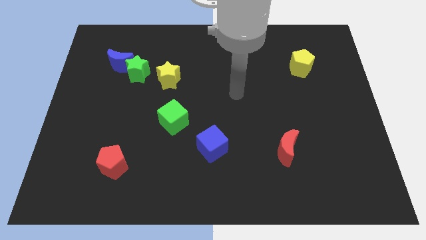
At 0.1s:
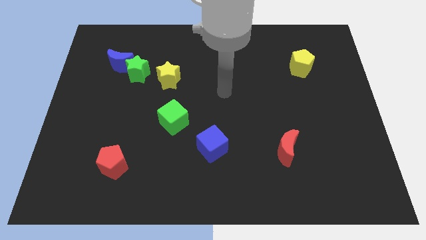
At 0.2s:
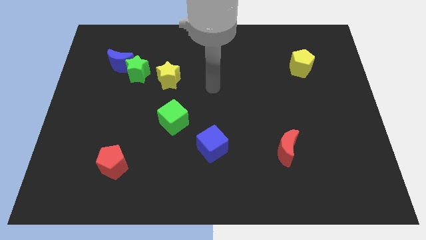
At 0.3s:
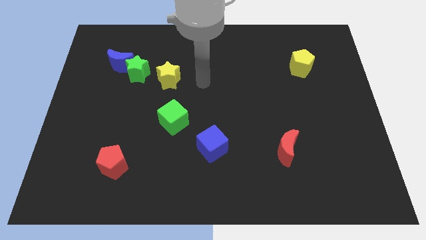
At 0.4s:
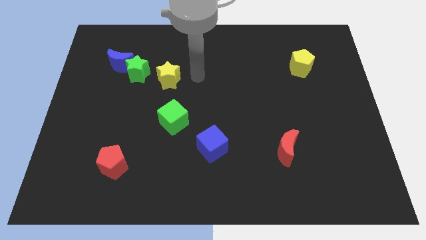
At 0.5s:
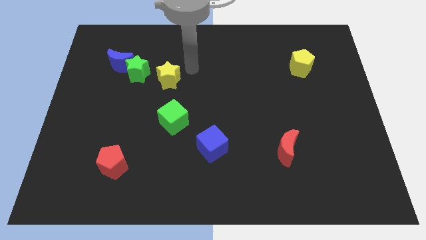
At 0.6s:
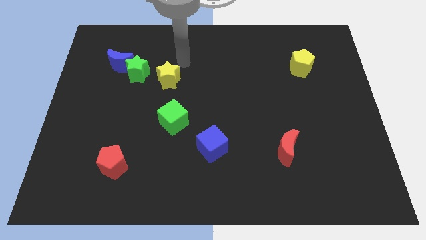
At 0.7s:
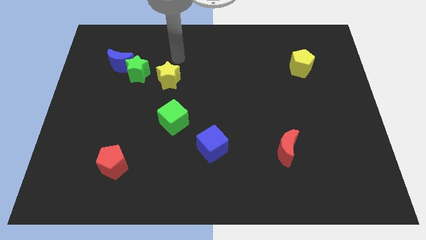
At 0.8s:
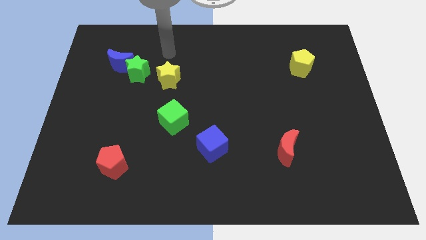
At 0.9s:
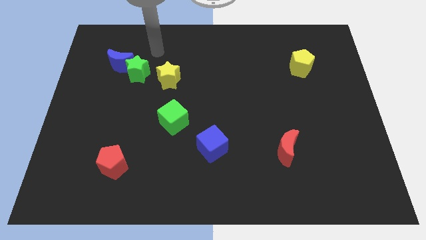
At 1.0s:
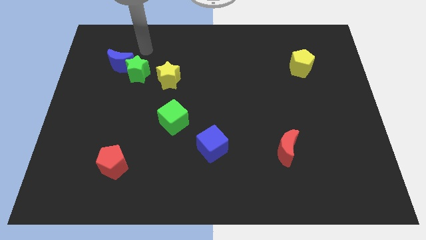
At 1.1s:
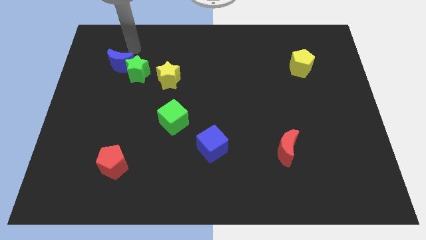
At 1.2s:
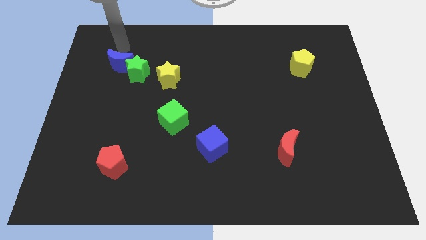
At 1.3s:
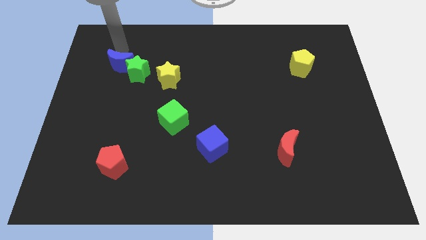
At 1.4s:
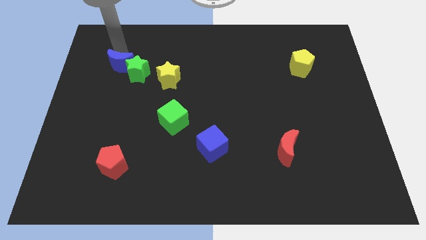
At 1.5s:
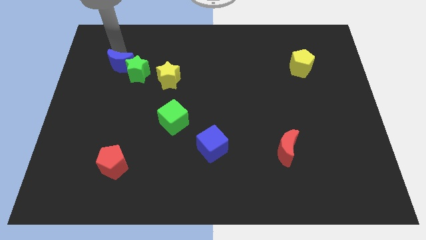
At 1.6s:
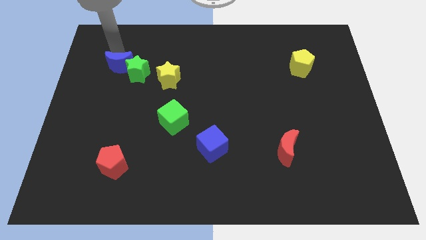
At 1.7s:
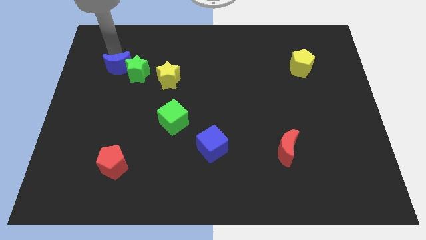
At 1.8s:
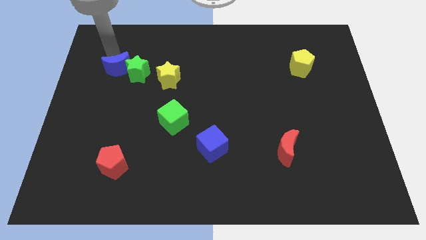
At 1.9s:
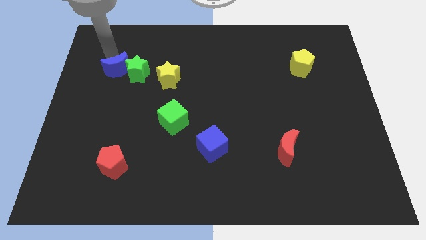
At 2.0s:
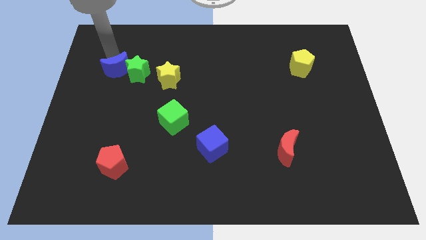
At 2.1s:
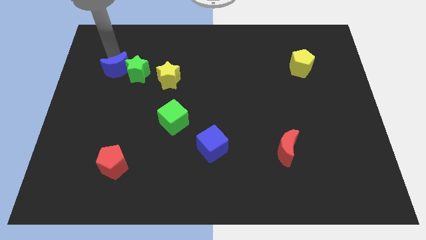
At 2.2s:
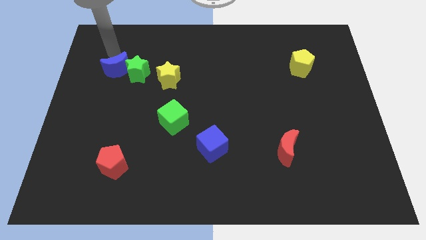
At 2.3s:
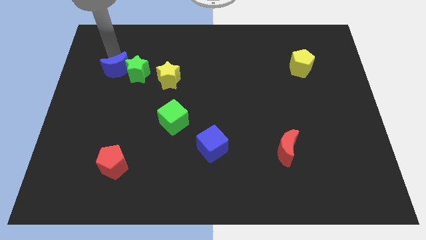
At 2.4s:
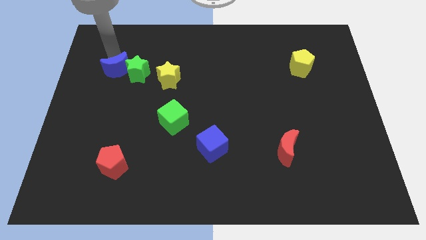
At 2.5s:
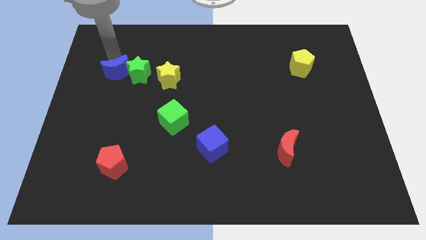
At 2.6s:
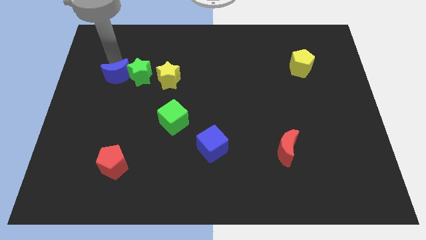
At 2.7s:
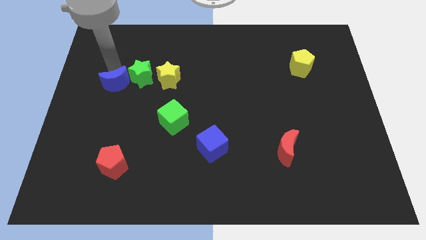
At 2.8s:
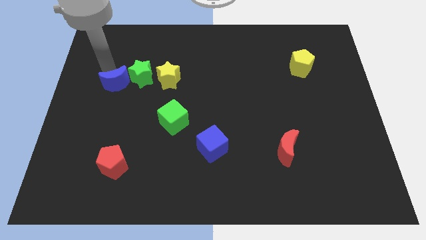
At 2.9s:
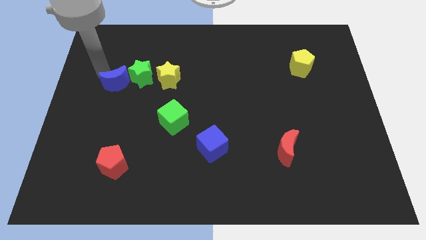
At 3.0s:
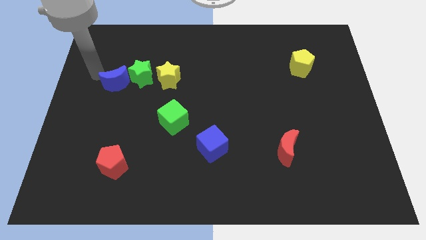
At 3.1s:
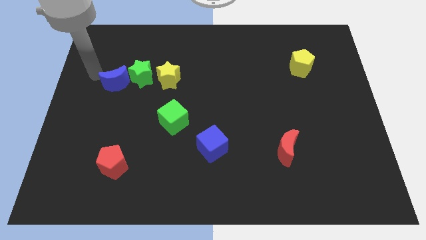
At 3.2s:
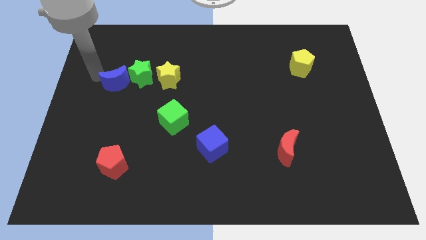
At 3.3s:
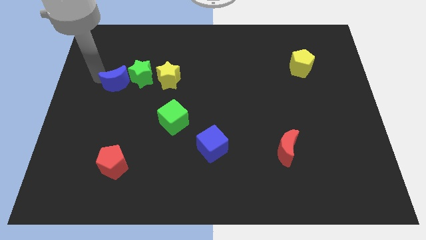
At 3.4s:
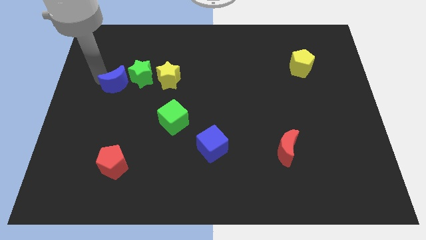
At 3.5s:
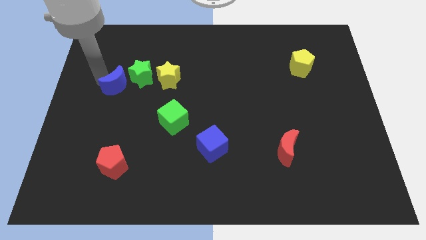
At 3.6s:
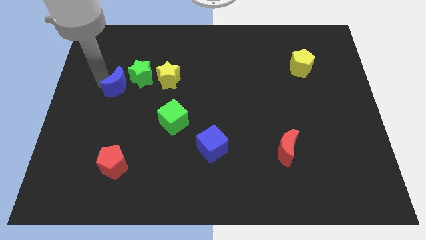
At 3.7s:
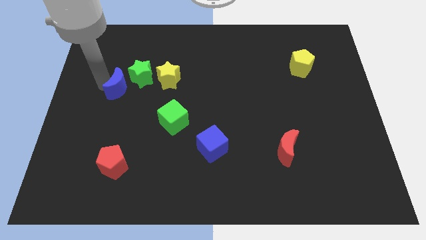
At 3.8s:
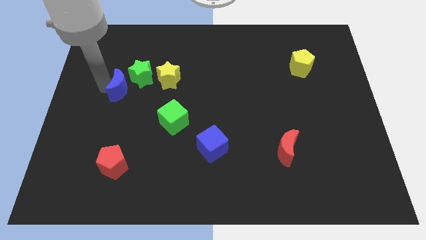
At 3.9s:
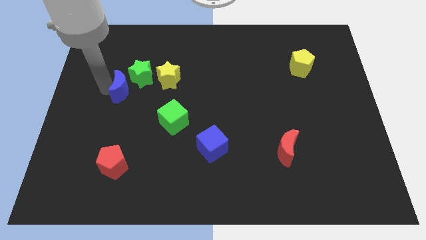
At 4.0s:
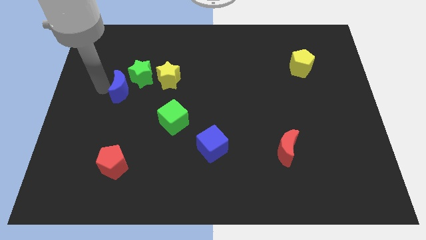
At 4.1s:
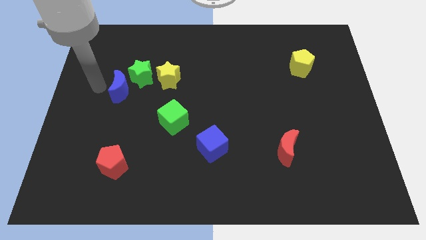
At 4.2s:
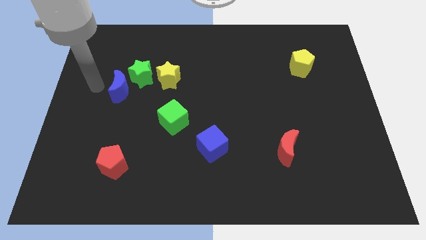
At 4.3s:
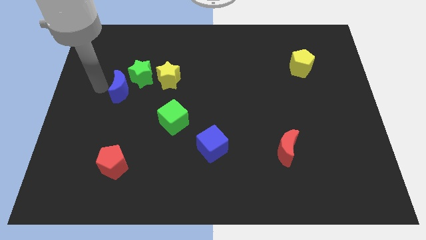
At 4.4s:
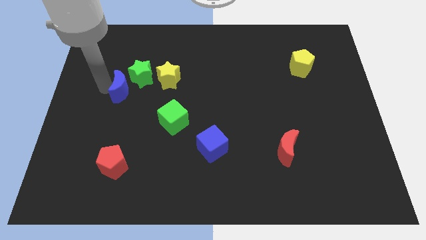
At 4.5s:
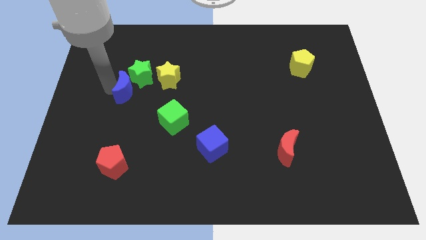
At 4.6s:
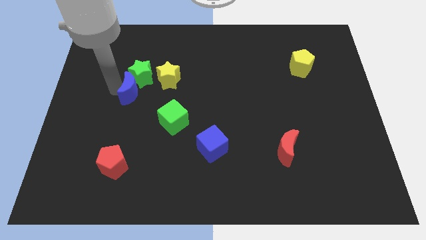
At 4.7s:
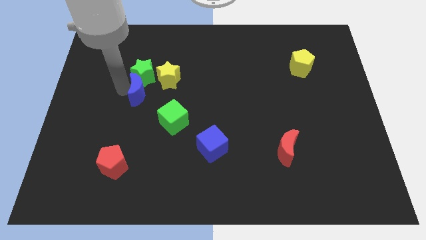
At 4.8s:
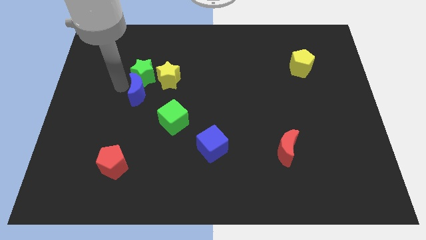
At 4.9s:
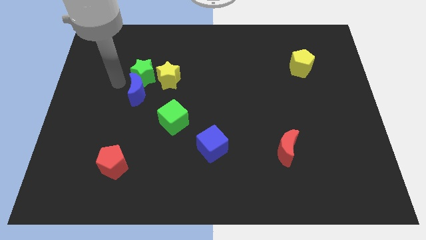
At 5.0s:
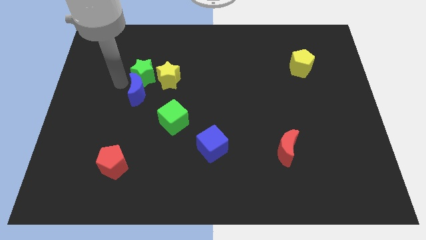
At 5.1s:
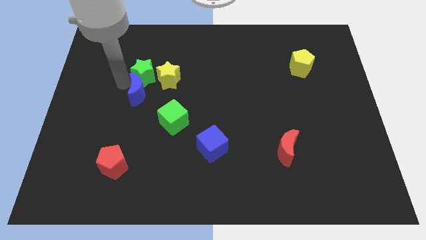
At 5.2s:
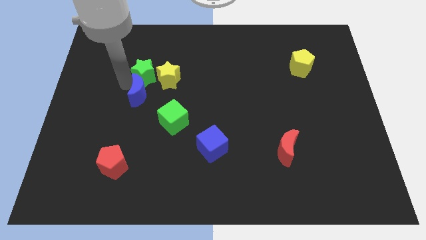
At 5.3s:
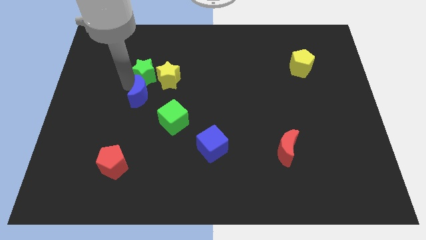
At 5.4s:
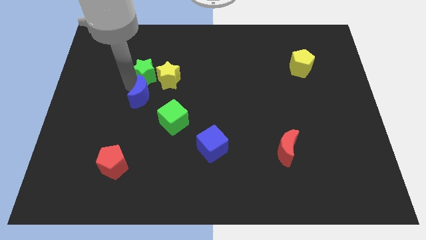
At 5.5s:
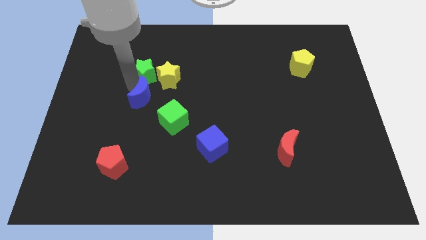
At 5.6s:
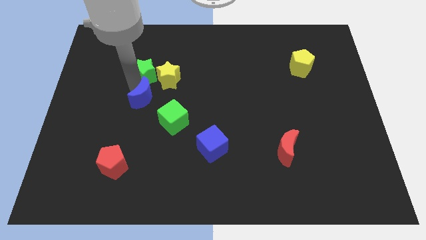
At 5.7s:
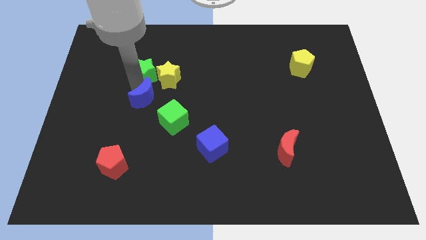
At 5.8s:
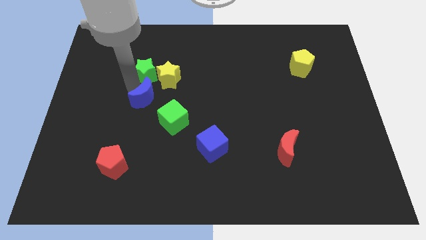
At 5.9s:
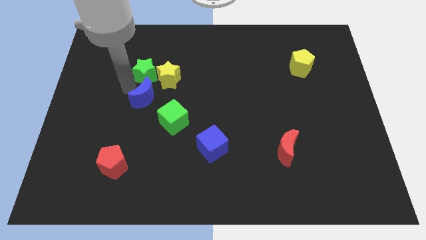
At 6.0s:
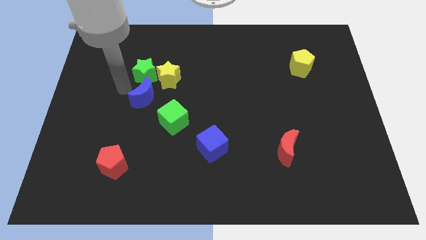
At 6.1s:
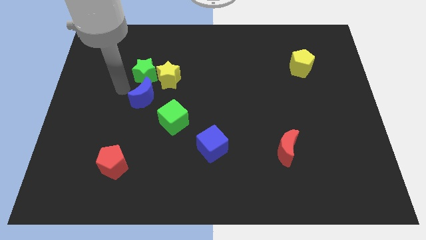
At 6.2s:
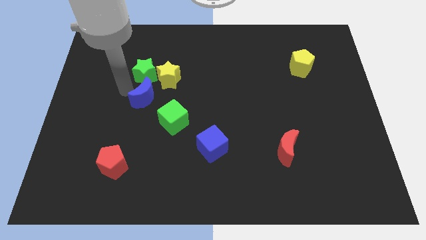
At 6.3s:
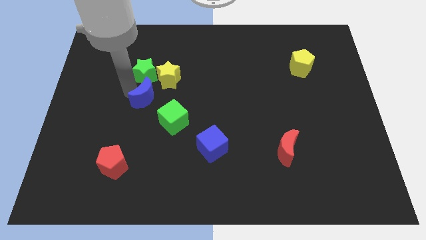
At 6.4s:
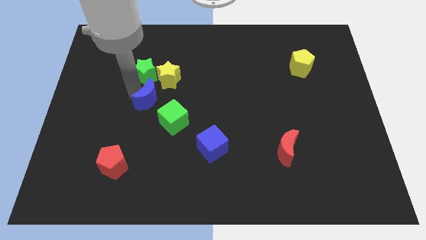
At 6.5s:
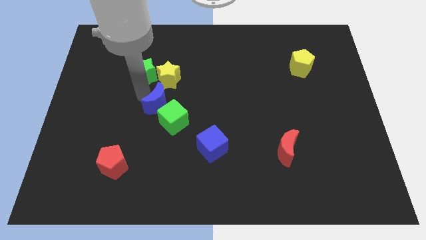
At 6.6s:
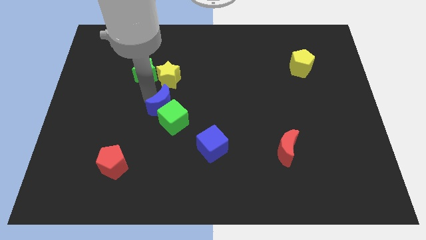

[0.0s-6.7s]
put the blue moon next to the green cube
